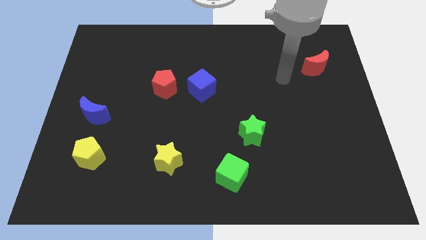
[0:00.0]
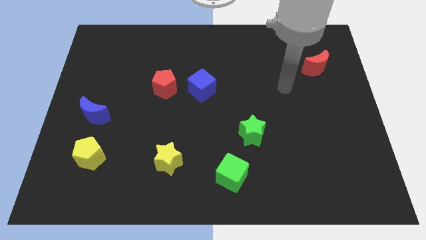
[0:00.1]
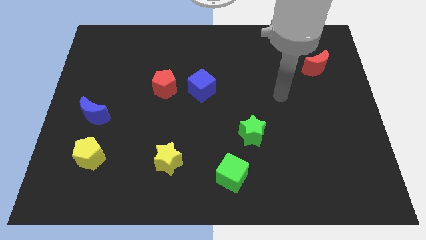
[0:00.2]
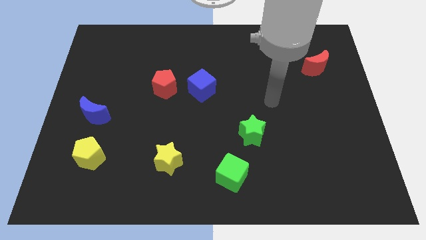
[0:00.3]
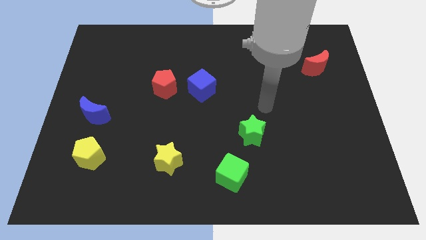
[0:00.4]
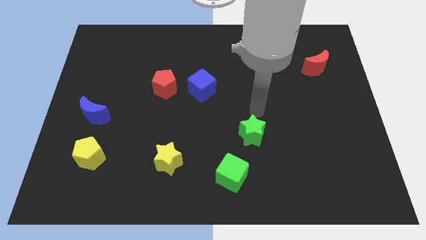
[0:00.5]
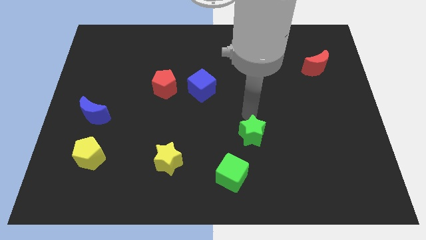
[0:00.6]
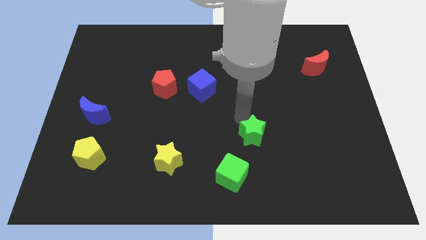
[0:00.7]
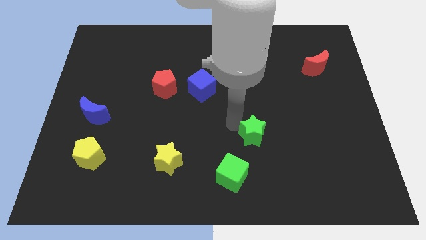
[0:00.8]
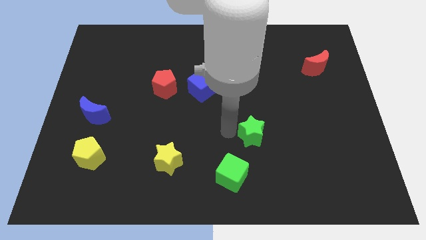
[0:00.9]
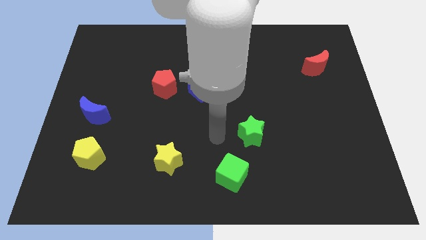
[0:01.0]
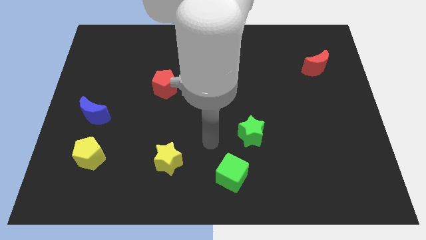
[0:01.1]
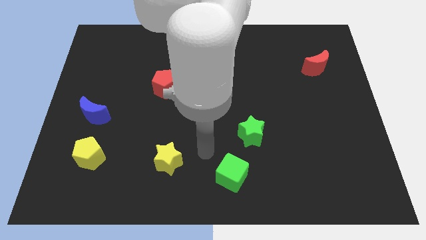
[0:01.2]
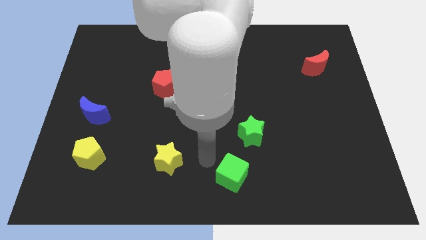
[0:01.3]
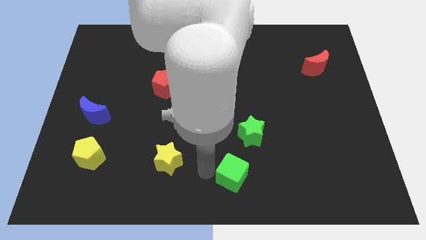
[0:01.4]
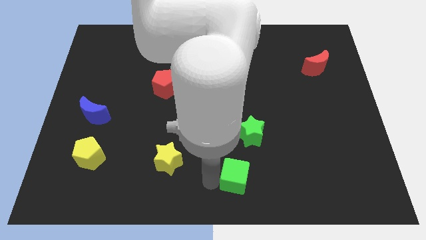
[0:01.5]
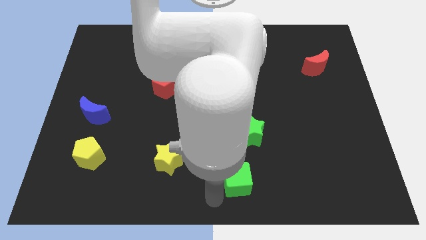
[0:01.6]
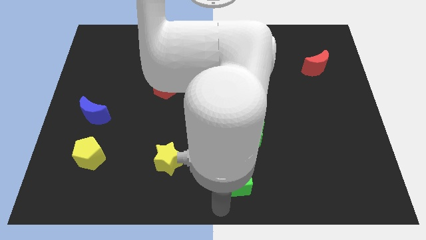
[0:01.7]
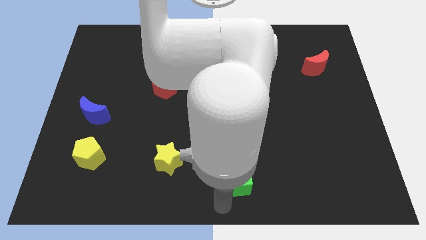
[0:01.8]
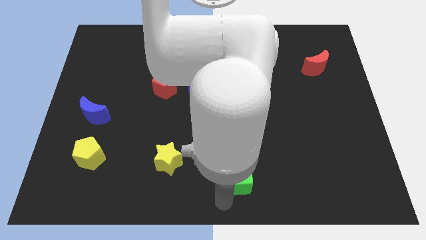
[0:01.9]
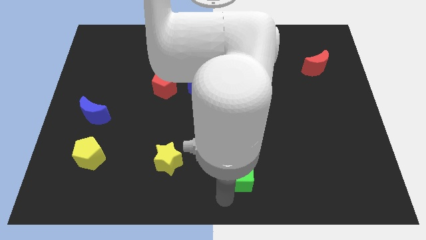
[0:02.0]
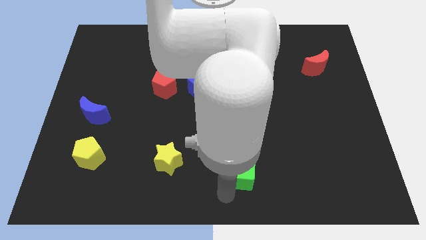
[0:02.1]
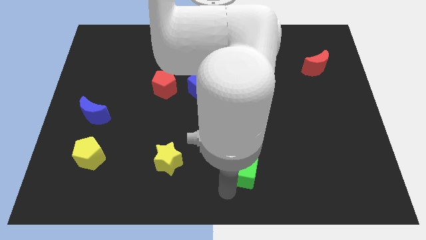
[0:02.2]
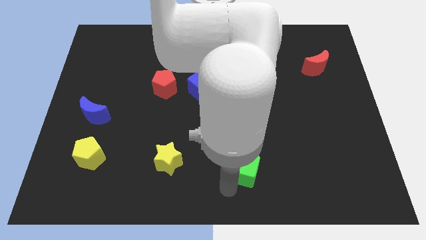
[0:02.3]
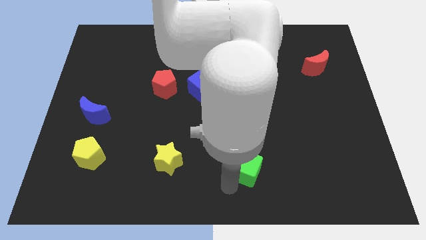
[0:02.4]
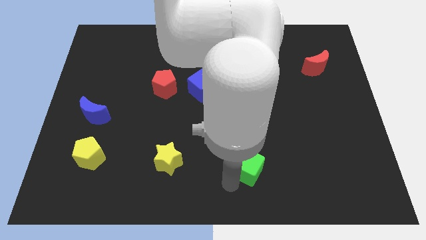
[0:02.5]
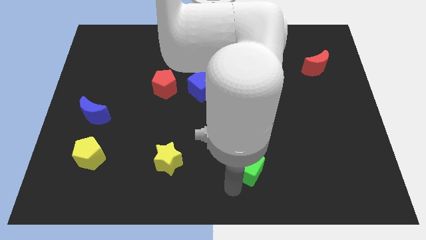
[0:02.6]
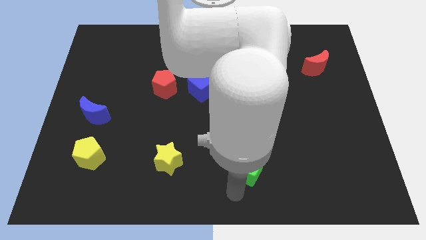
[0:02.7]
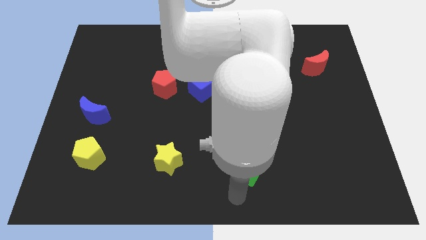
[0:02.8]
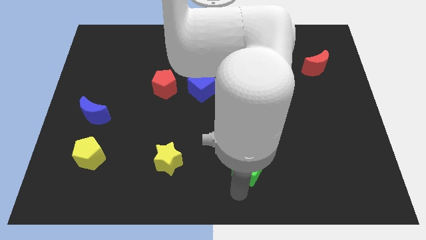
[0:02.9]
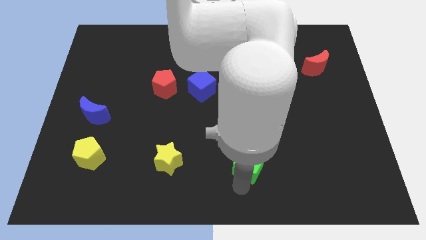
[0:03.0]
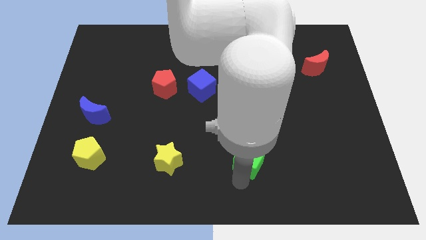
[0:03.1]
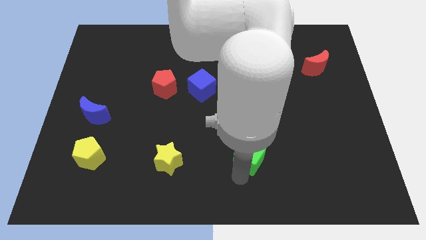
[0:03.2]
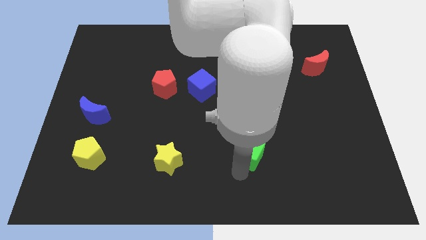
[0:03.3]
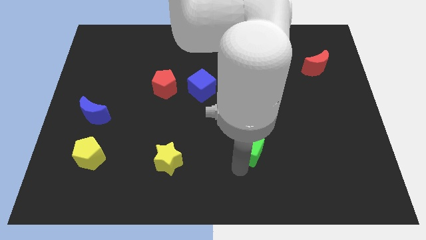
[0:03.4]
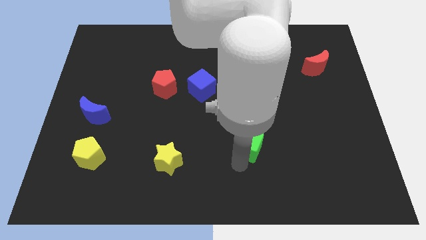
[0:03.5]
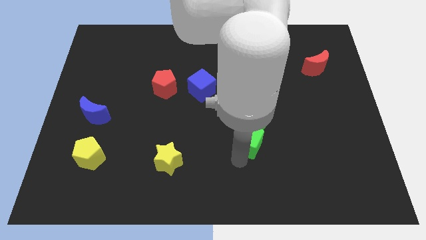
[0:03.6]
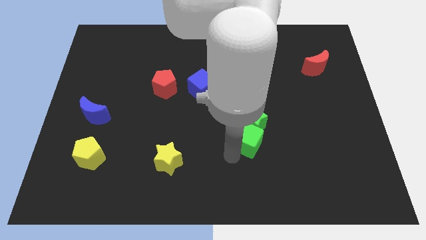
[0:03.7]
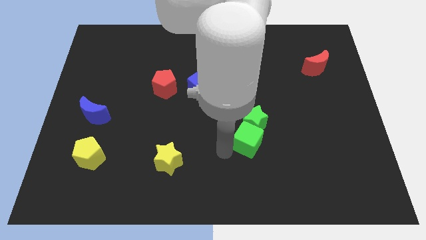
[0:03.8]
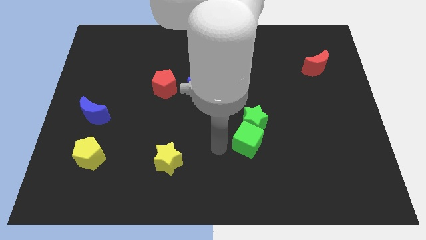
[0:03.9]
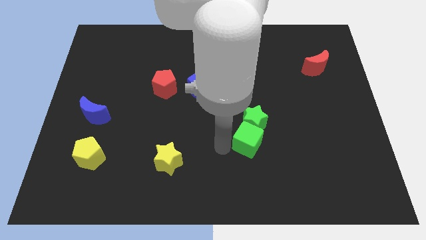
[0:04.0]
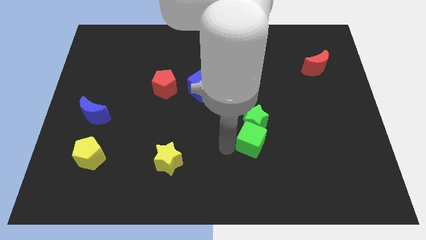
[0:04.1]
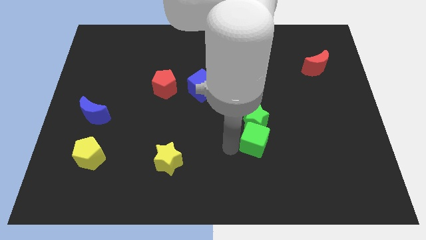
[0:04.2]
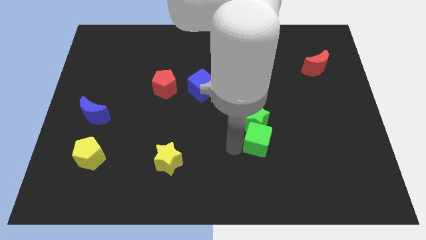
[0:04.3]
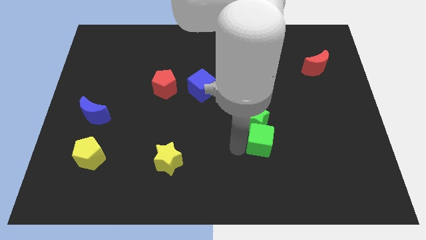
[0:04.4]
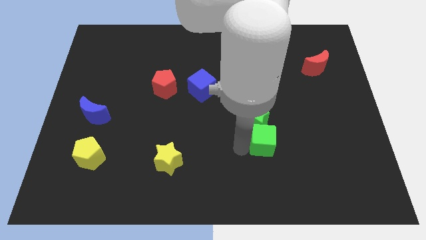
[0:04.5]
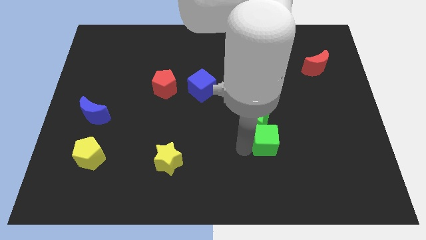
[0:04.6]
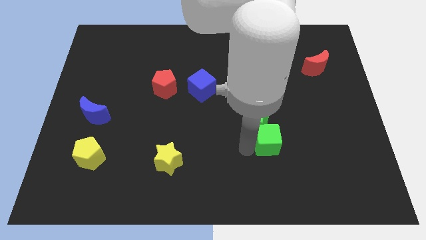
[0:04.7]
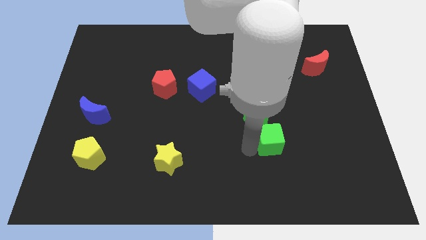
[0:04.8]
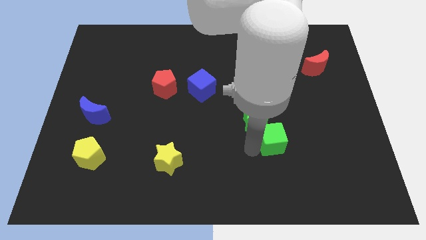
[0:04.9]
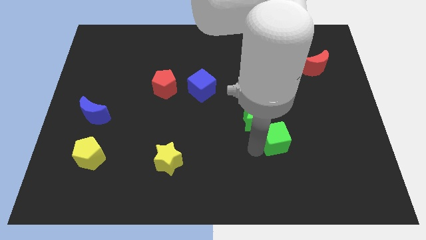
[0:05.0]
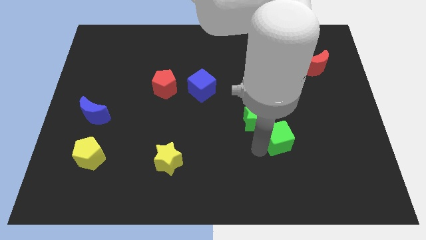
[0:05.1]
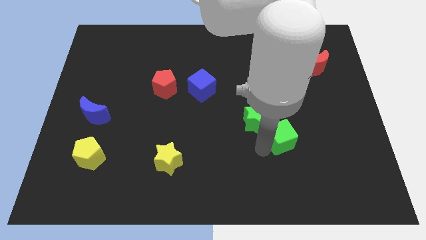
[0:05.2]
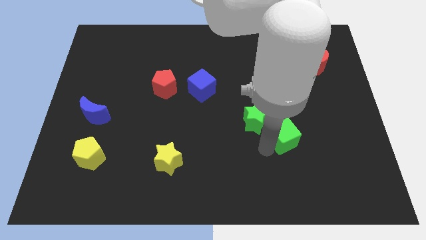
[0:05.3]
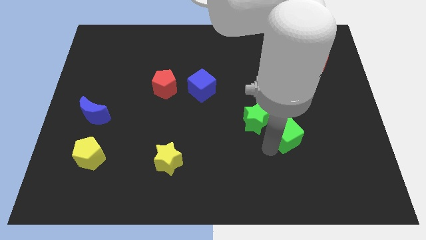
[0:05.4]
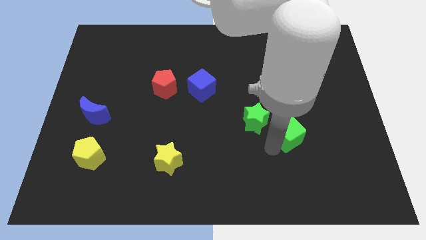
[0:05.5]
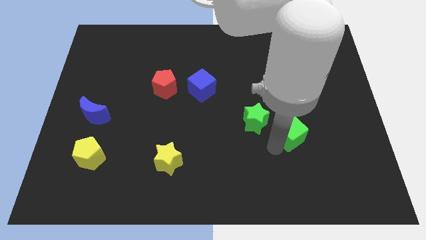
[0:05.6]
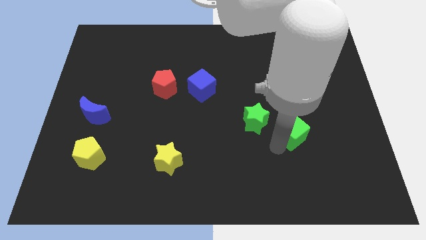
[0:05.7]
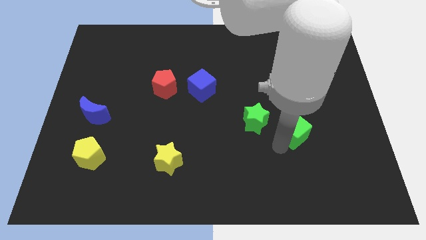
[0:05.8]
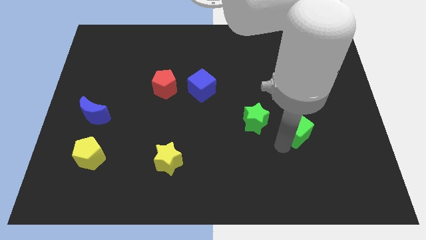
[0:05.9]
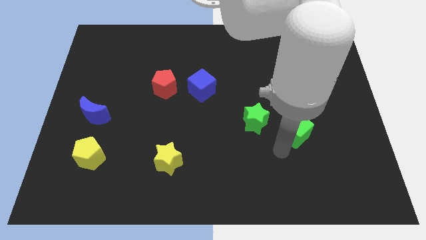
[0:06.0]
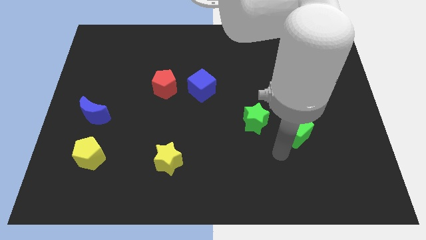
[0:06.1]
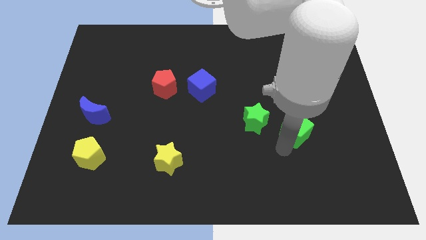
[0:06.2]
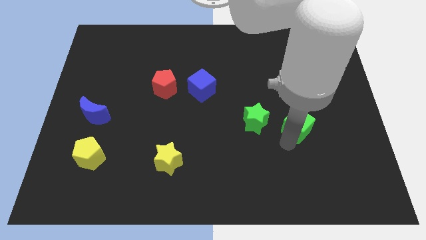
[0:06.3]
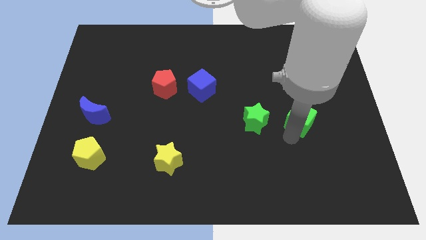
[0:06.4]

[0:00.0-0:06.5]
move the green cube upwards and then right

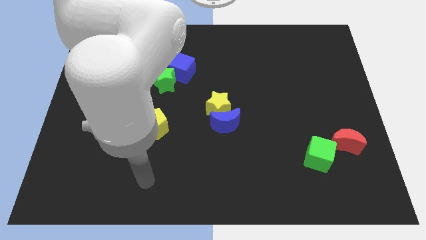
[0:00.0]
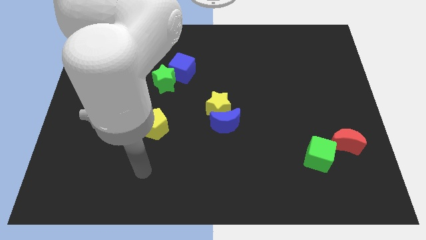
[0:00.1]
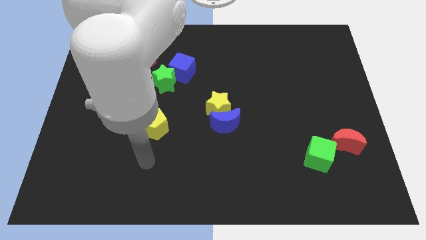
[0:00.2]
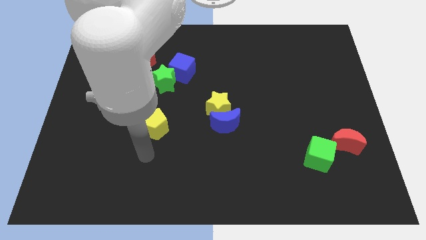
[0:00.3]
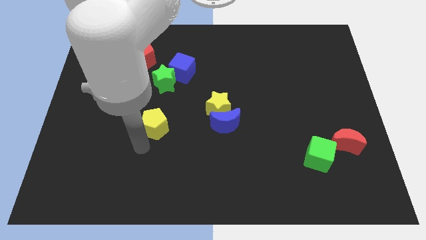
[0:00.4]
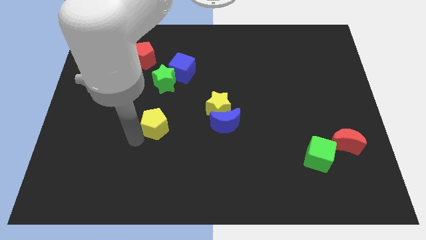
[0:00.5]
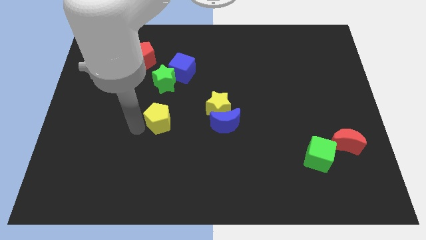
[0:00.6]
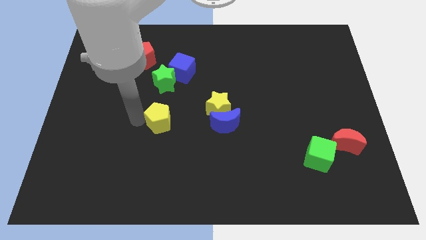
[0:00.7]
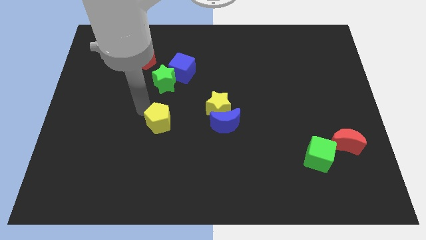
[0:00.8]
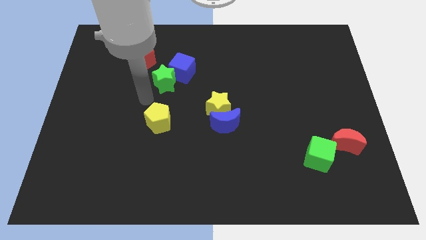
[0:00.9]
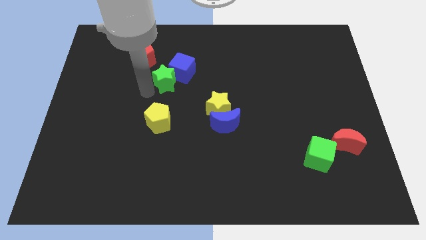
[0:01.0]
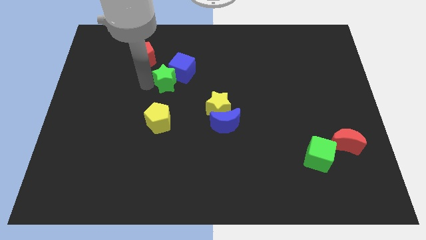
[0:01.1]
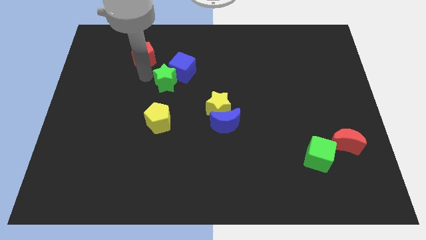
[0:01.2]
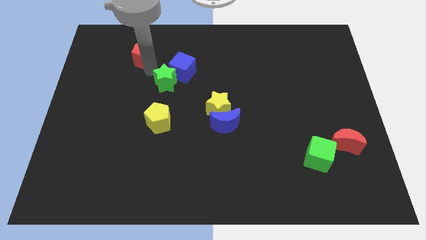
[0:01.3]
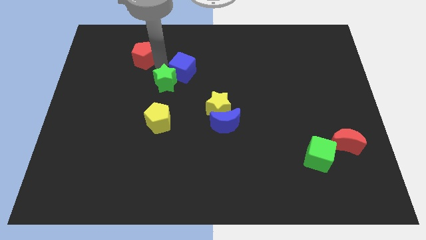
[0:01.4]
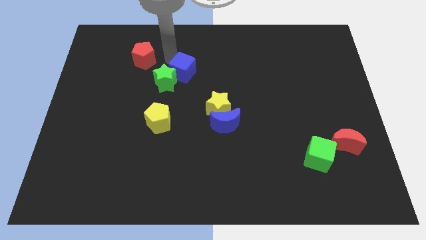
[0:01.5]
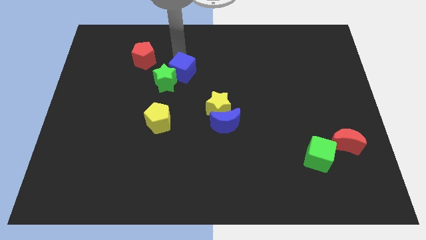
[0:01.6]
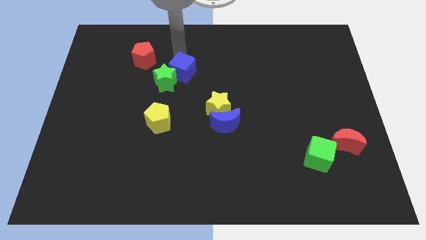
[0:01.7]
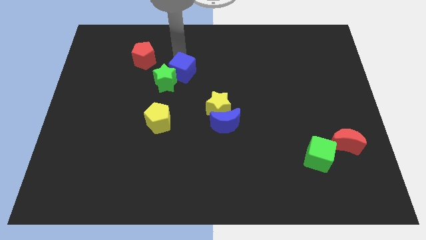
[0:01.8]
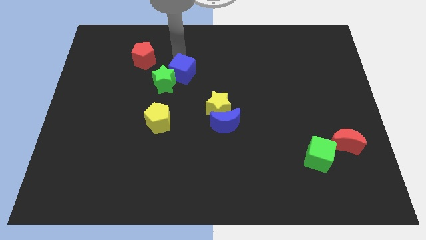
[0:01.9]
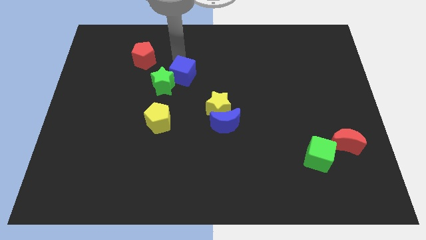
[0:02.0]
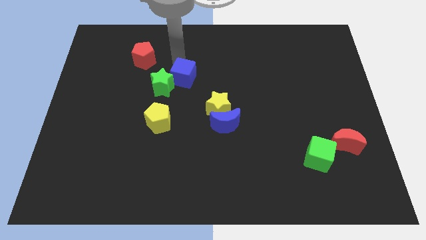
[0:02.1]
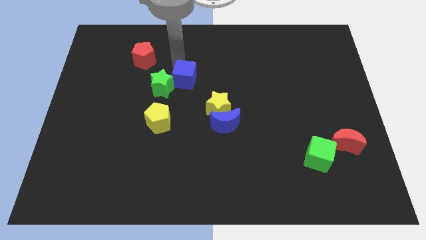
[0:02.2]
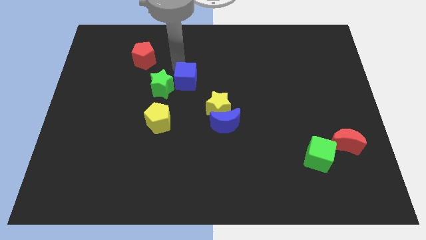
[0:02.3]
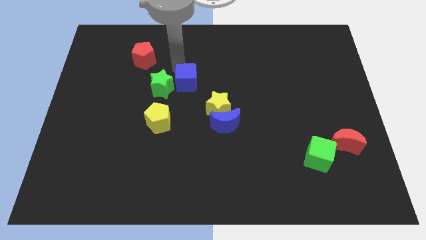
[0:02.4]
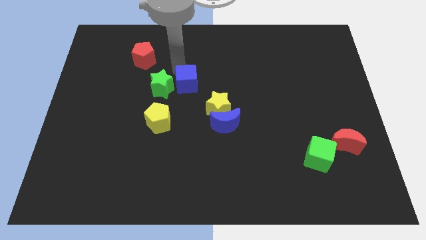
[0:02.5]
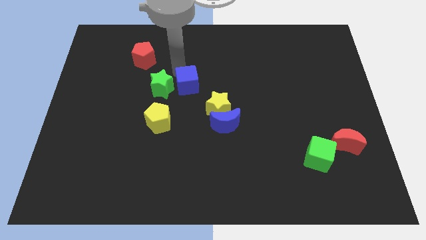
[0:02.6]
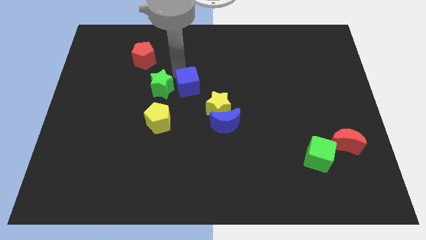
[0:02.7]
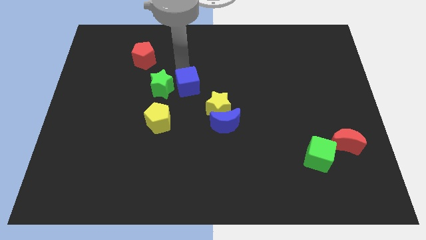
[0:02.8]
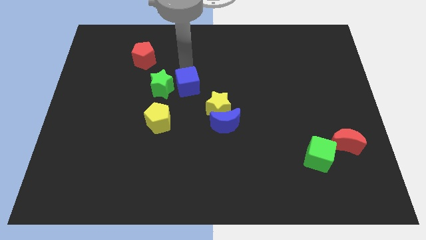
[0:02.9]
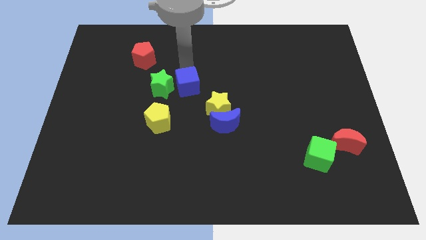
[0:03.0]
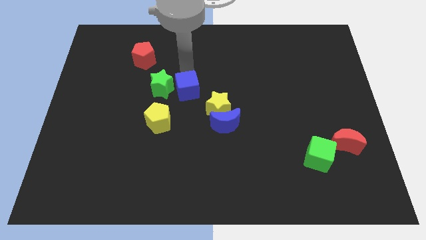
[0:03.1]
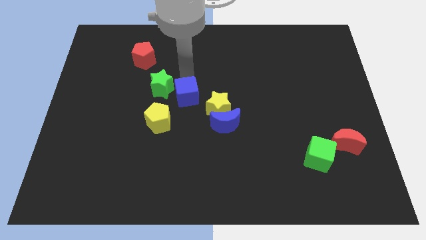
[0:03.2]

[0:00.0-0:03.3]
slightly push the blue cube down
